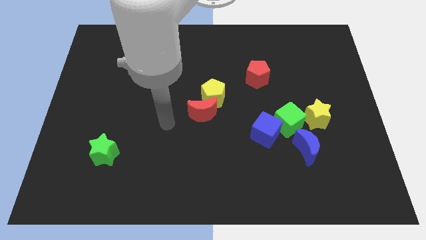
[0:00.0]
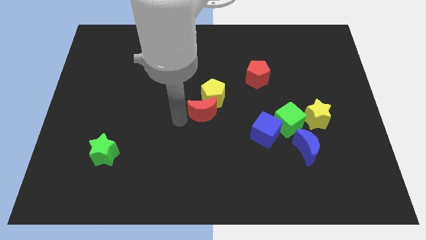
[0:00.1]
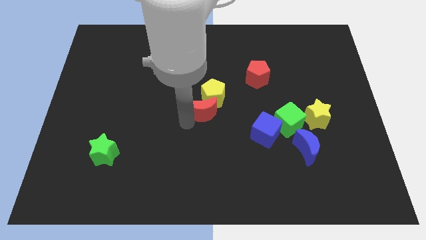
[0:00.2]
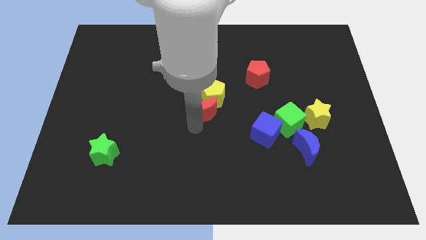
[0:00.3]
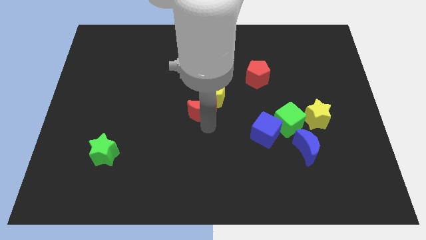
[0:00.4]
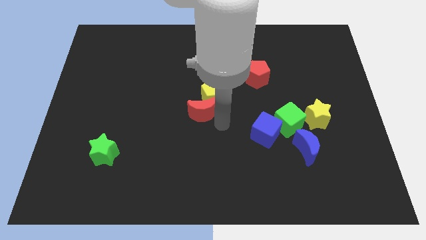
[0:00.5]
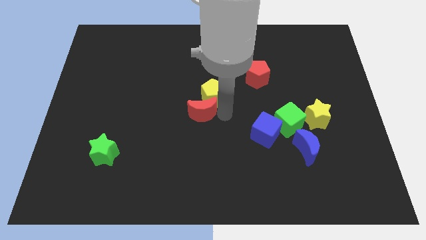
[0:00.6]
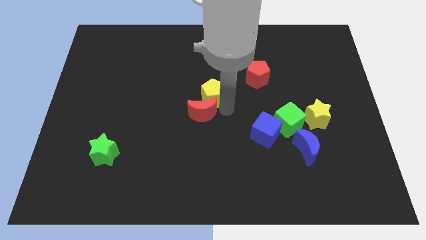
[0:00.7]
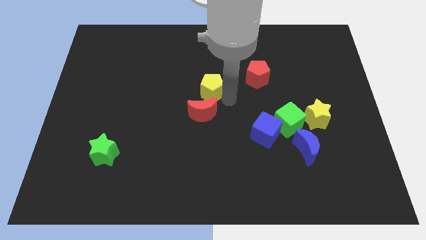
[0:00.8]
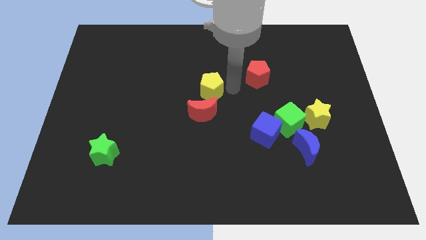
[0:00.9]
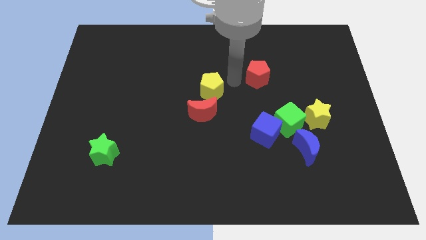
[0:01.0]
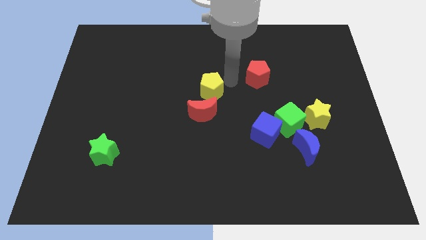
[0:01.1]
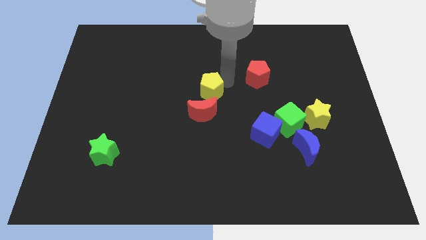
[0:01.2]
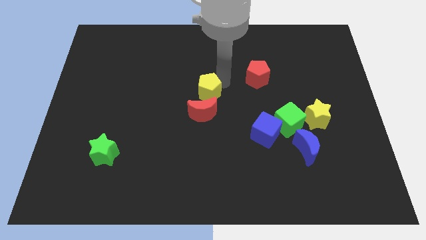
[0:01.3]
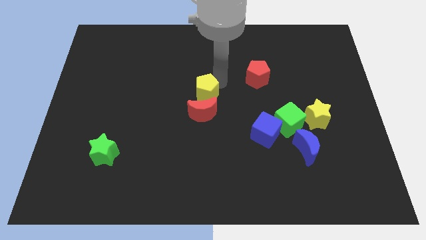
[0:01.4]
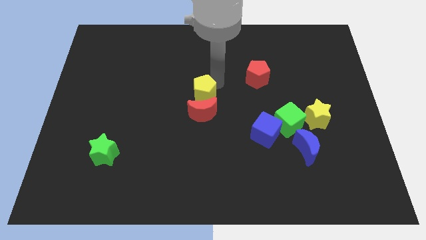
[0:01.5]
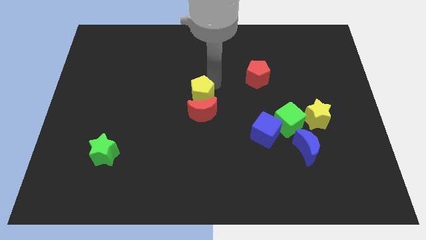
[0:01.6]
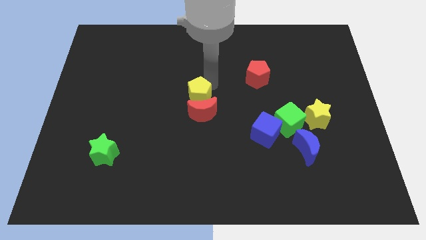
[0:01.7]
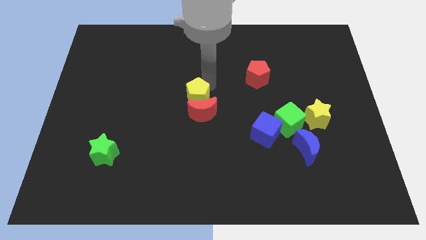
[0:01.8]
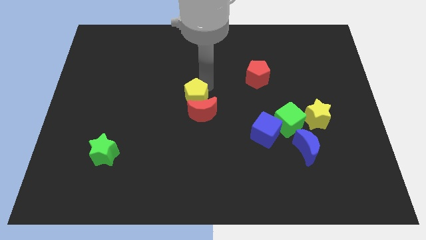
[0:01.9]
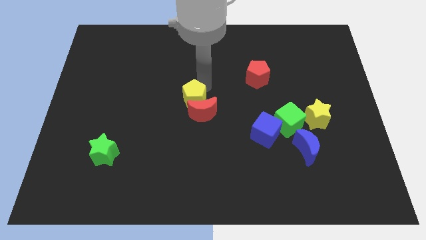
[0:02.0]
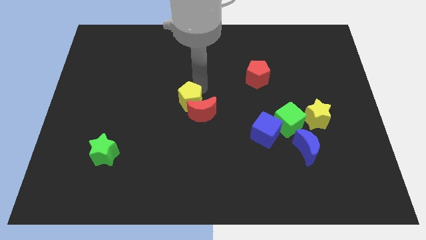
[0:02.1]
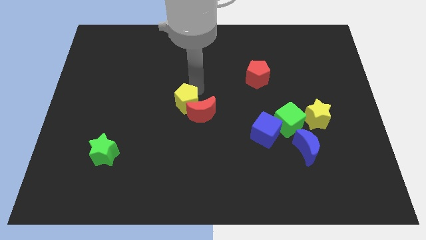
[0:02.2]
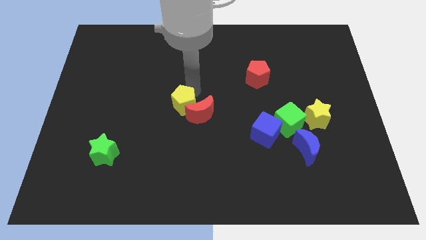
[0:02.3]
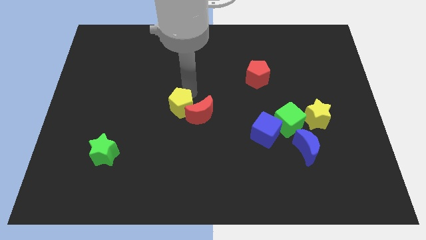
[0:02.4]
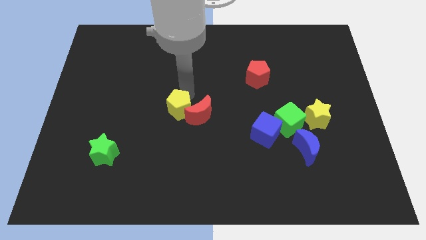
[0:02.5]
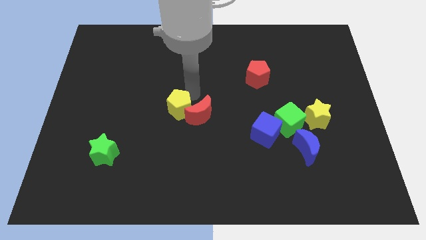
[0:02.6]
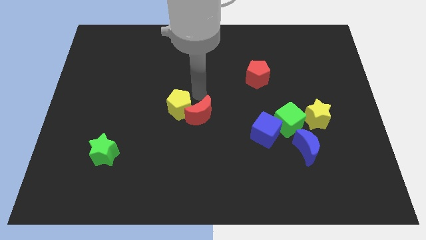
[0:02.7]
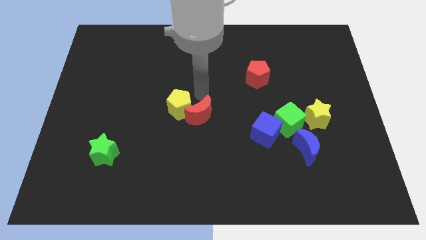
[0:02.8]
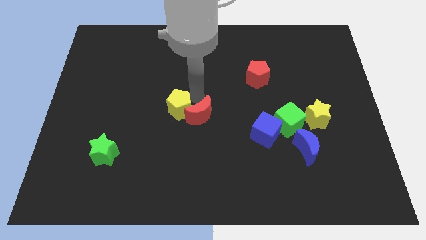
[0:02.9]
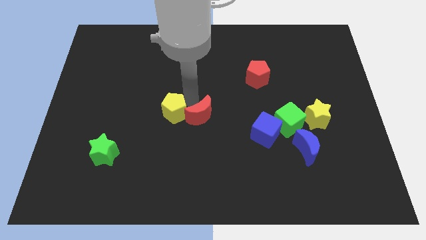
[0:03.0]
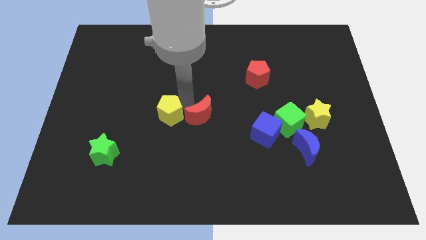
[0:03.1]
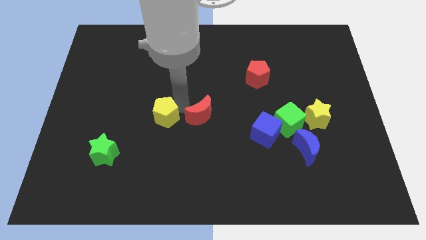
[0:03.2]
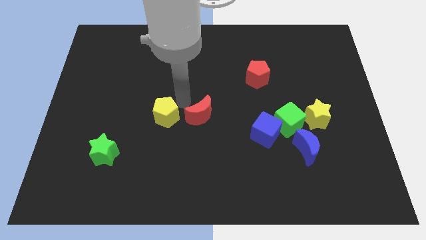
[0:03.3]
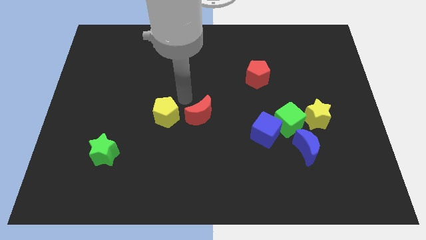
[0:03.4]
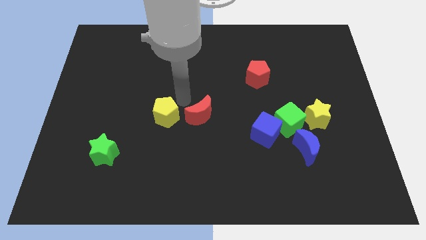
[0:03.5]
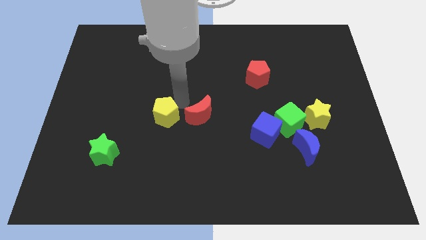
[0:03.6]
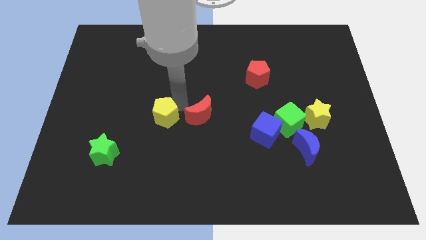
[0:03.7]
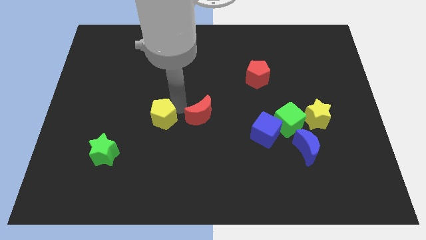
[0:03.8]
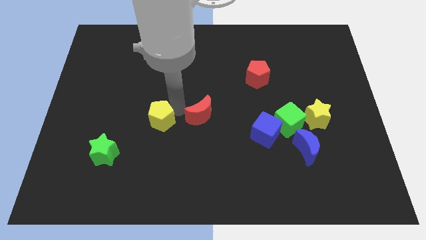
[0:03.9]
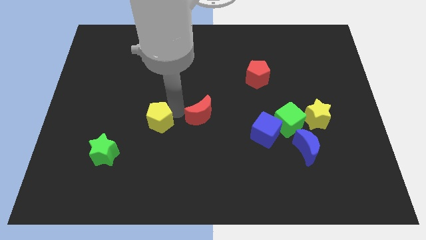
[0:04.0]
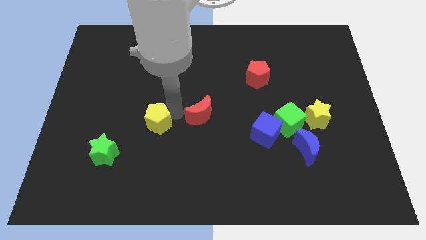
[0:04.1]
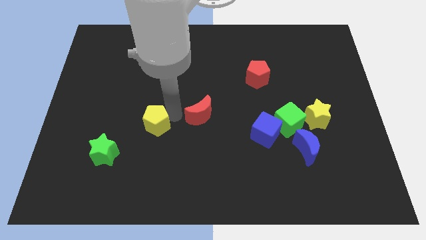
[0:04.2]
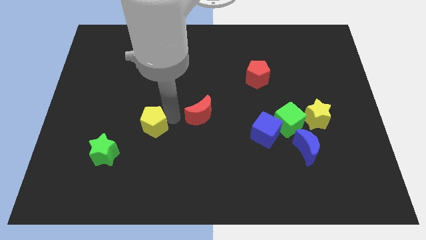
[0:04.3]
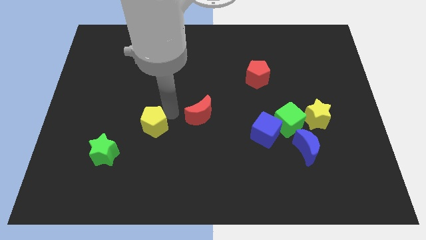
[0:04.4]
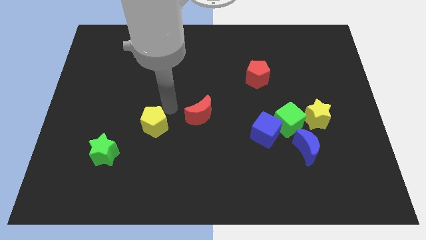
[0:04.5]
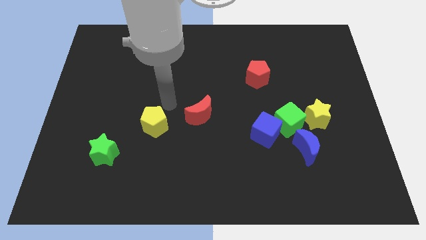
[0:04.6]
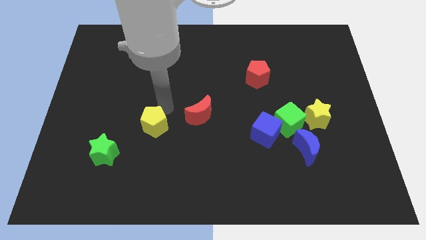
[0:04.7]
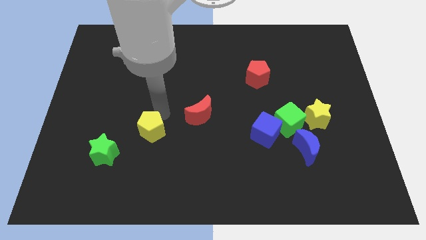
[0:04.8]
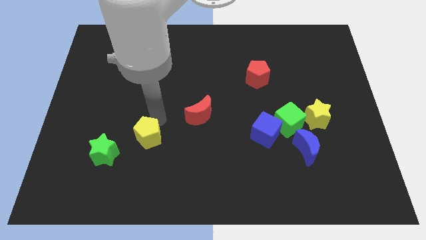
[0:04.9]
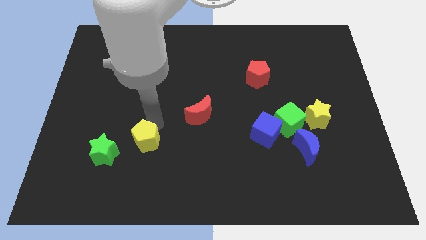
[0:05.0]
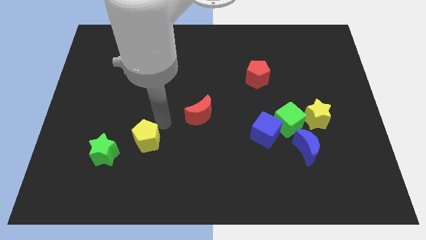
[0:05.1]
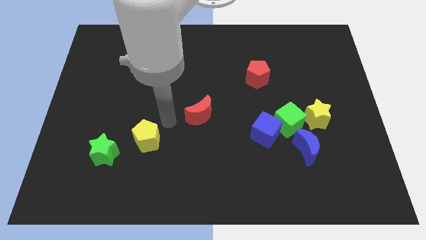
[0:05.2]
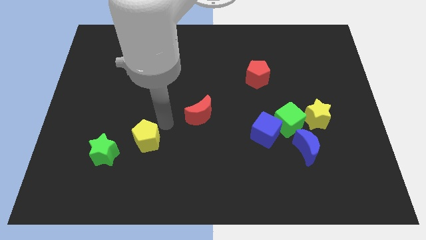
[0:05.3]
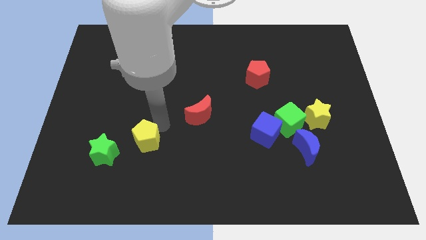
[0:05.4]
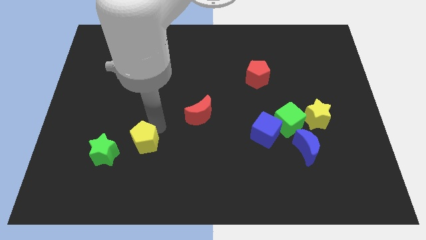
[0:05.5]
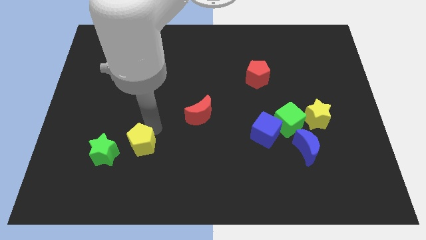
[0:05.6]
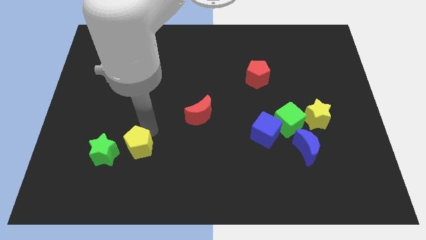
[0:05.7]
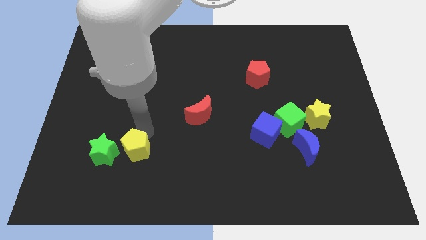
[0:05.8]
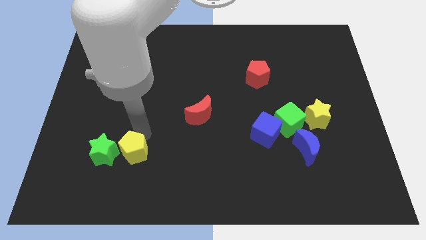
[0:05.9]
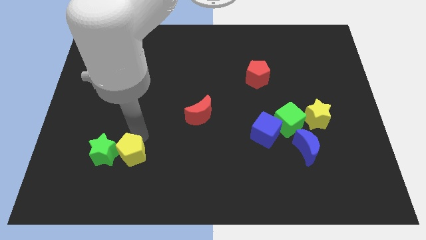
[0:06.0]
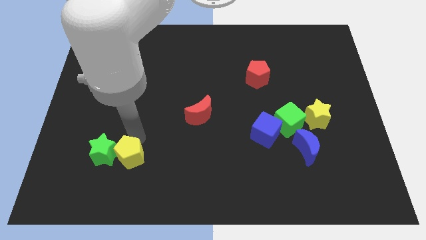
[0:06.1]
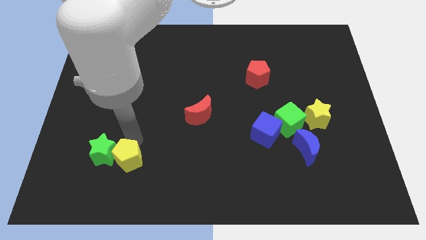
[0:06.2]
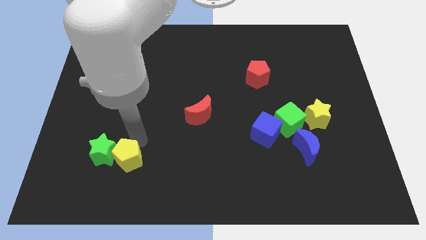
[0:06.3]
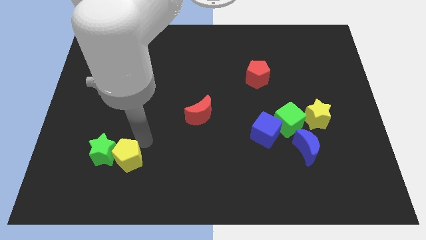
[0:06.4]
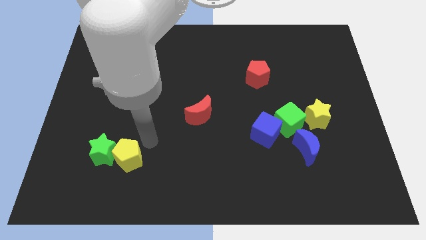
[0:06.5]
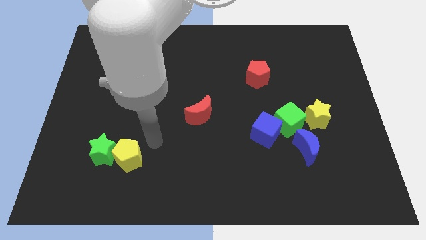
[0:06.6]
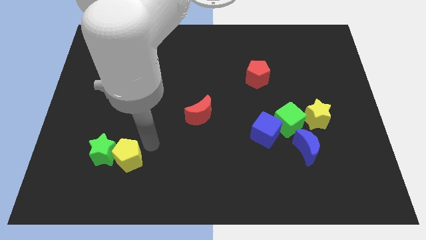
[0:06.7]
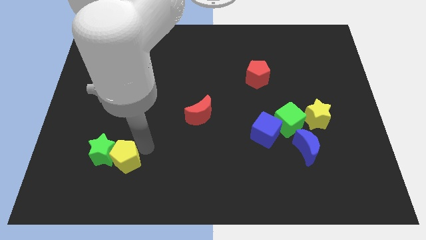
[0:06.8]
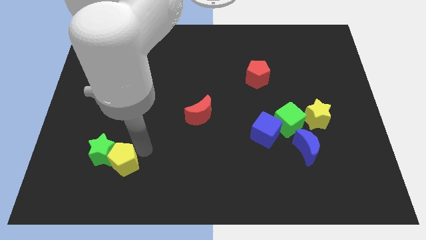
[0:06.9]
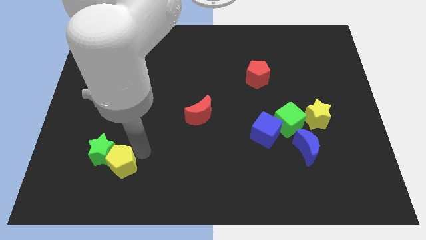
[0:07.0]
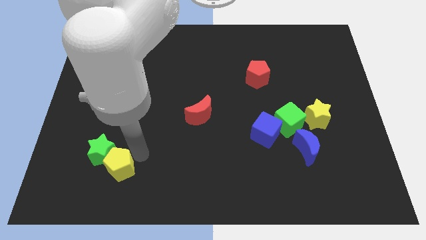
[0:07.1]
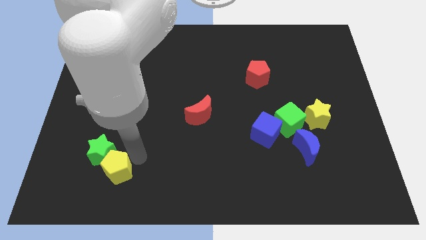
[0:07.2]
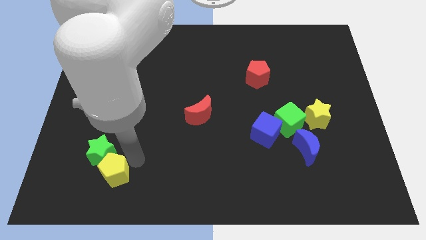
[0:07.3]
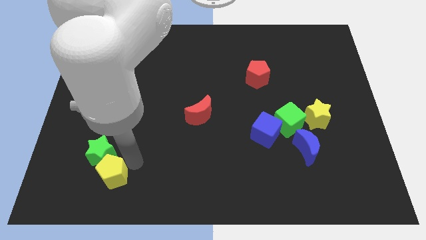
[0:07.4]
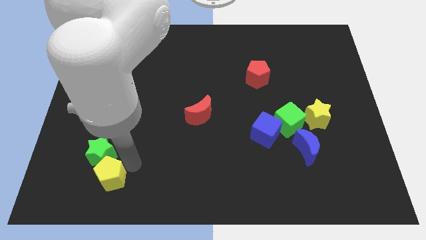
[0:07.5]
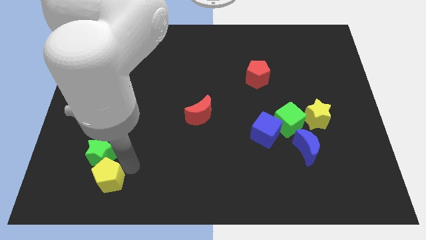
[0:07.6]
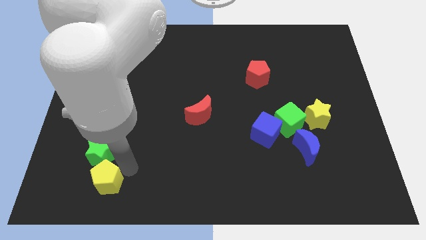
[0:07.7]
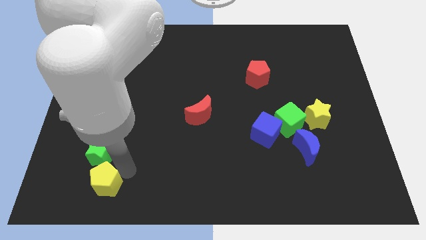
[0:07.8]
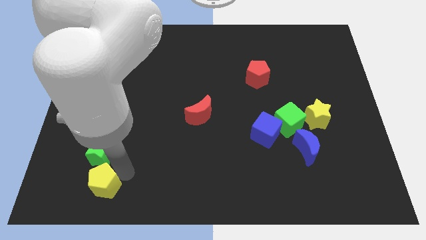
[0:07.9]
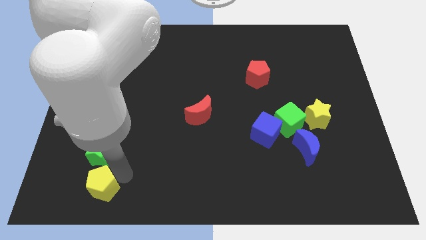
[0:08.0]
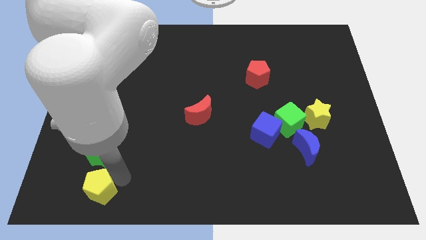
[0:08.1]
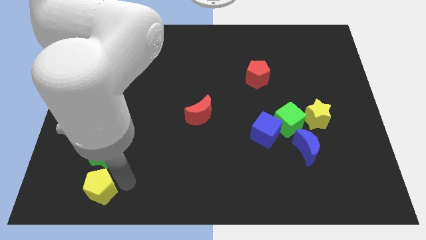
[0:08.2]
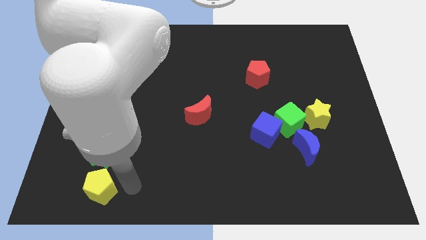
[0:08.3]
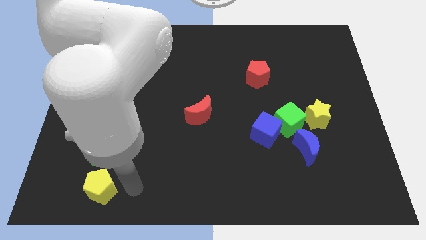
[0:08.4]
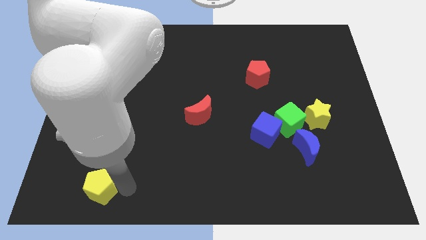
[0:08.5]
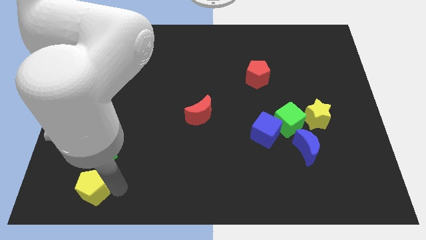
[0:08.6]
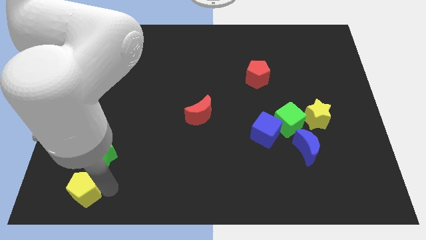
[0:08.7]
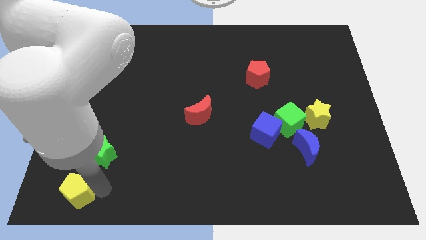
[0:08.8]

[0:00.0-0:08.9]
move the yellow pentagon to the lower left corner
